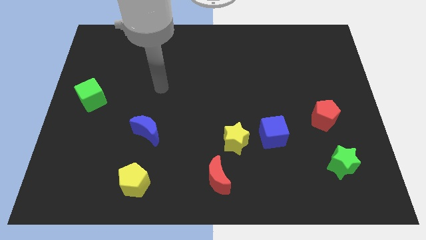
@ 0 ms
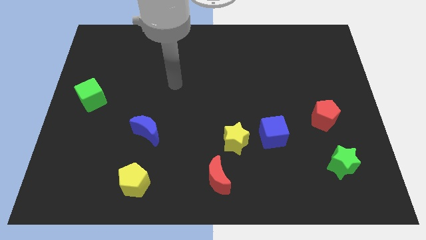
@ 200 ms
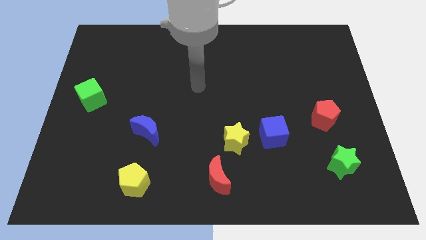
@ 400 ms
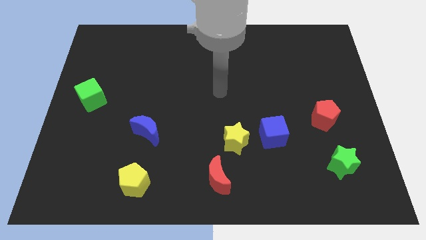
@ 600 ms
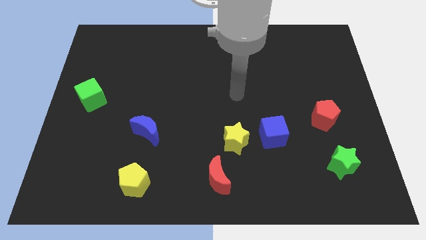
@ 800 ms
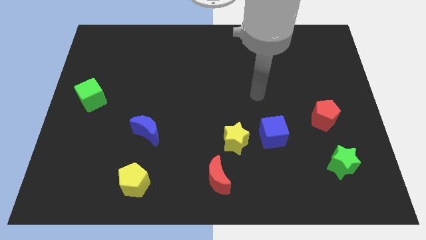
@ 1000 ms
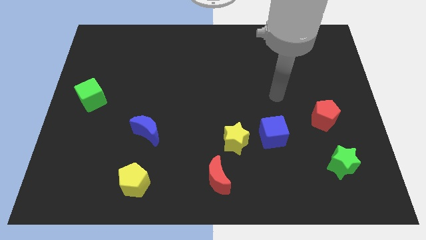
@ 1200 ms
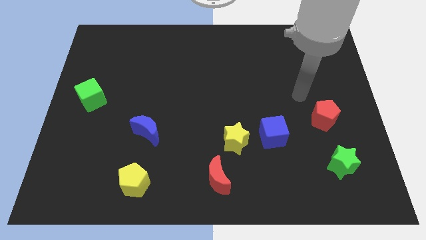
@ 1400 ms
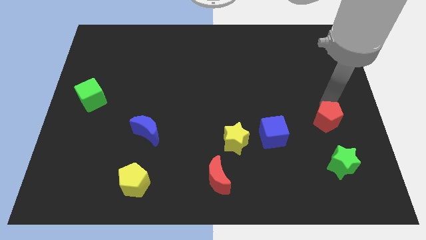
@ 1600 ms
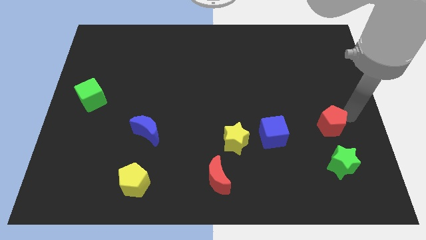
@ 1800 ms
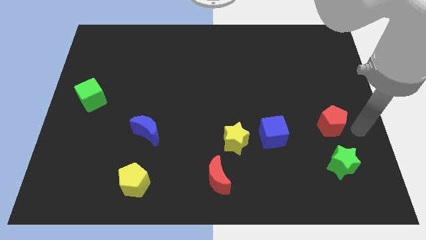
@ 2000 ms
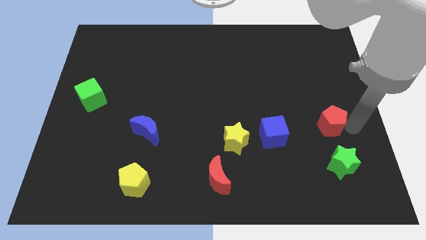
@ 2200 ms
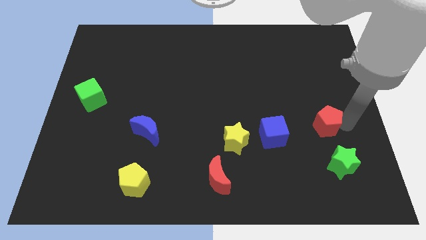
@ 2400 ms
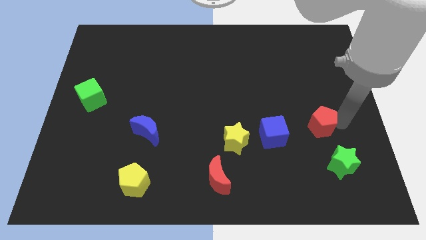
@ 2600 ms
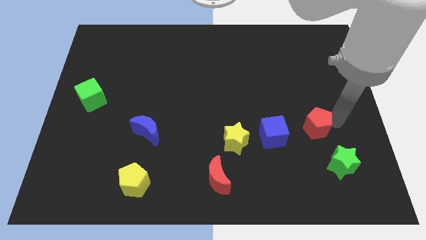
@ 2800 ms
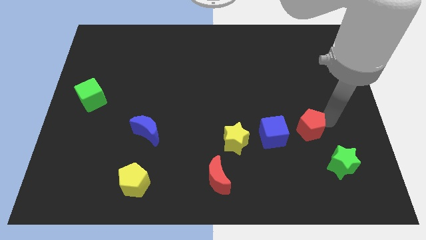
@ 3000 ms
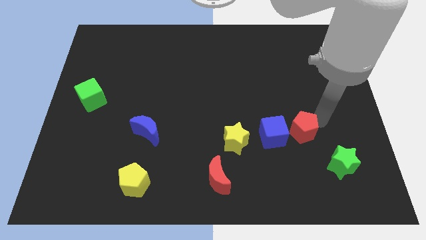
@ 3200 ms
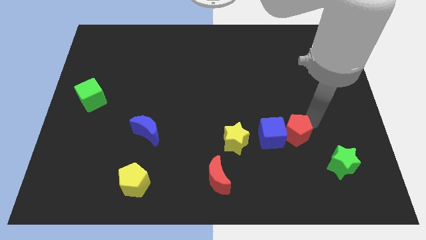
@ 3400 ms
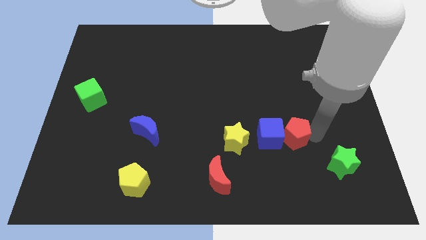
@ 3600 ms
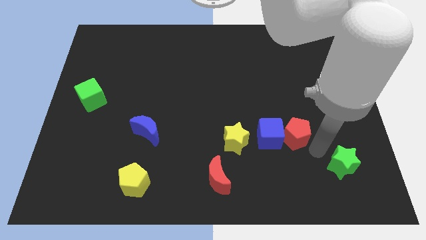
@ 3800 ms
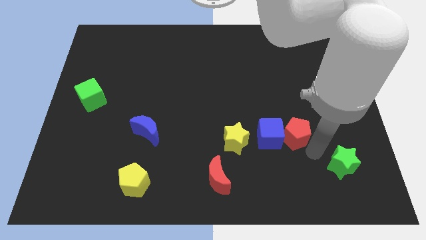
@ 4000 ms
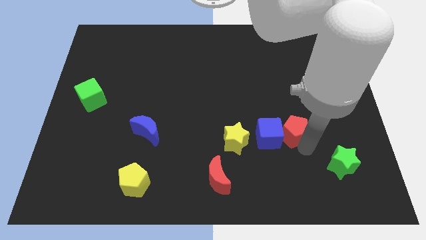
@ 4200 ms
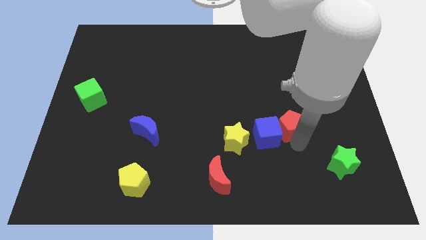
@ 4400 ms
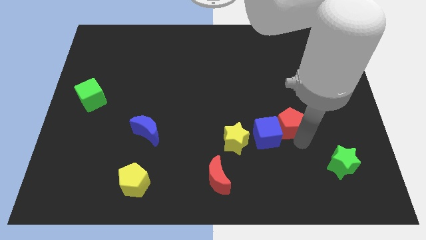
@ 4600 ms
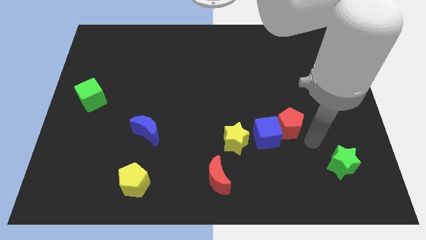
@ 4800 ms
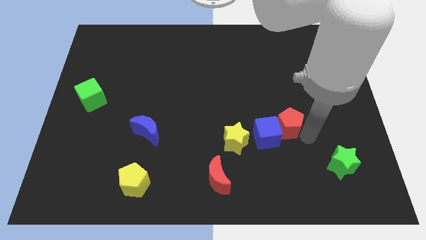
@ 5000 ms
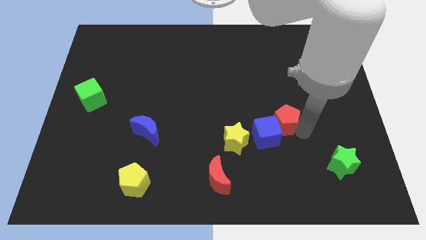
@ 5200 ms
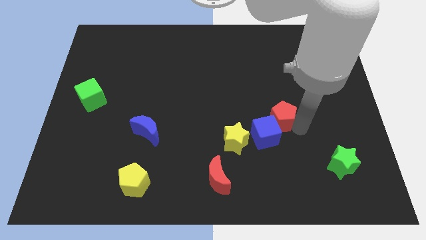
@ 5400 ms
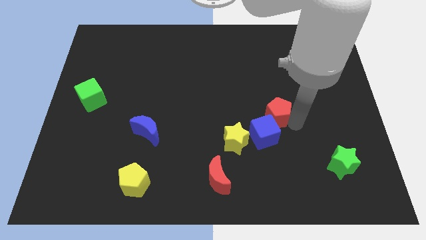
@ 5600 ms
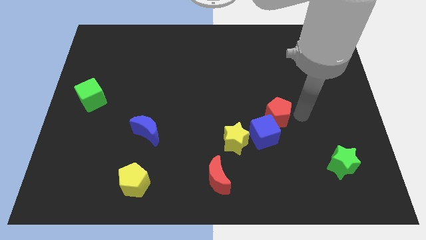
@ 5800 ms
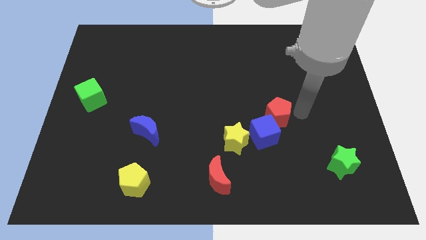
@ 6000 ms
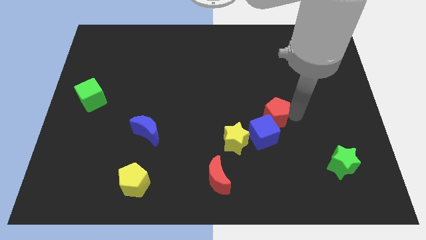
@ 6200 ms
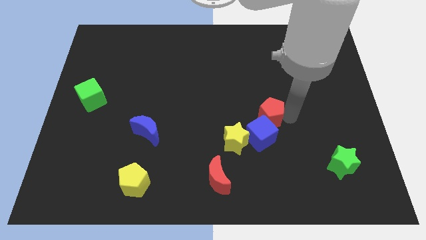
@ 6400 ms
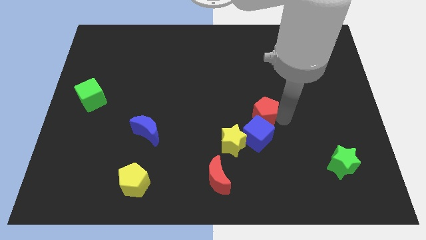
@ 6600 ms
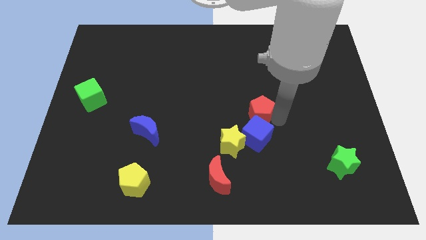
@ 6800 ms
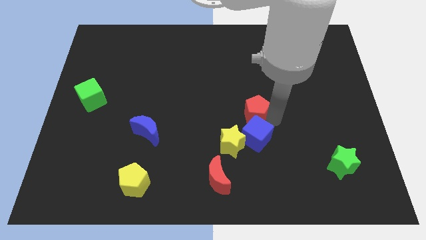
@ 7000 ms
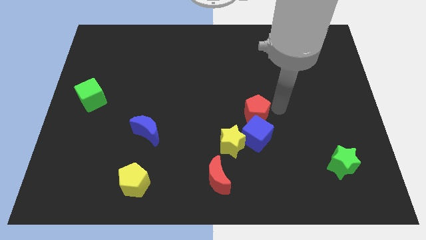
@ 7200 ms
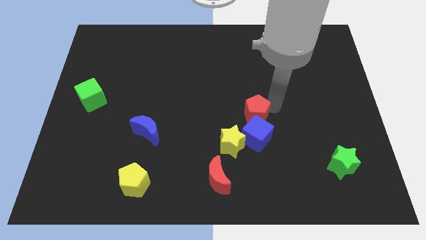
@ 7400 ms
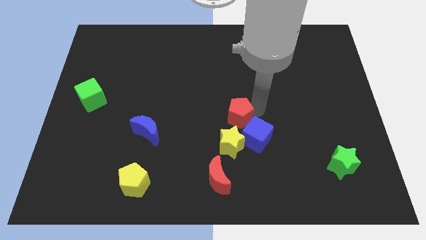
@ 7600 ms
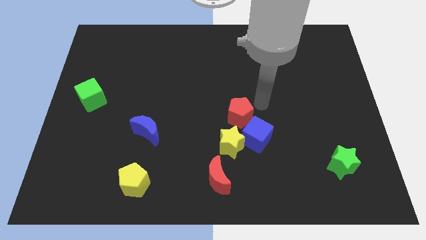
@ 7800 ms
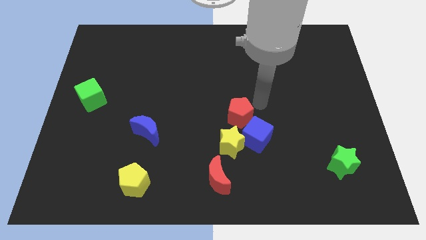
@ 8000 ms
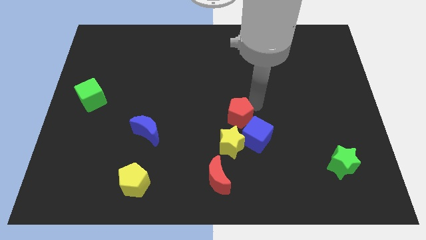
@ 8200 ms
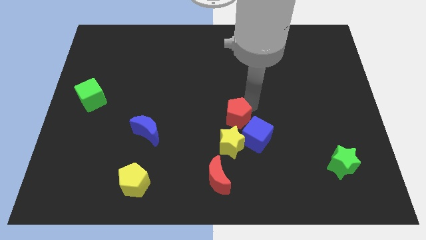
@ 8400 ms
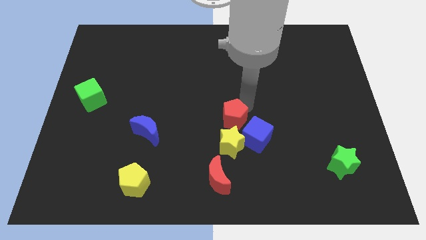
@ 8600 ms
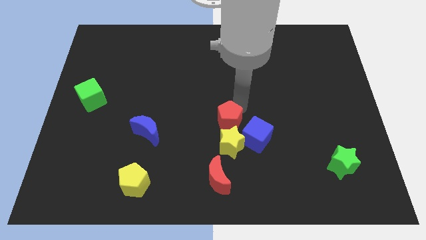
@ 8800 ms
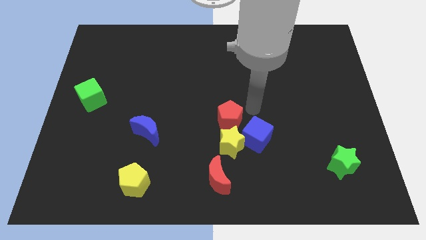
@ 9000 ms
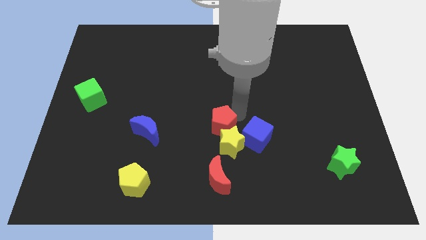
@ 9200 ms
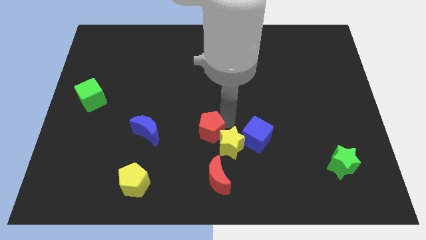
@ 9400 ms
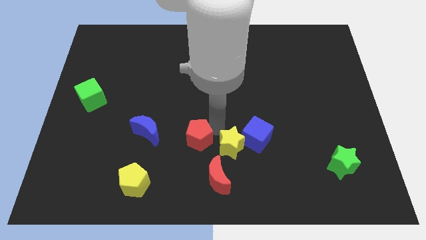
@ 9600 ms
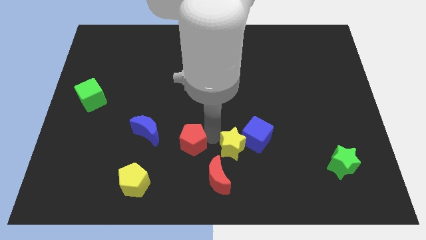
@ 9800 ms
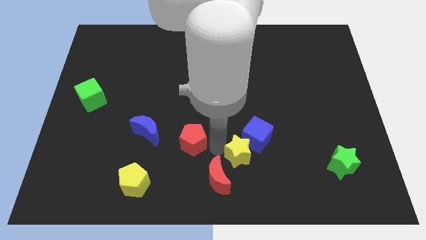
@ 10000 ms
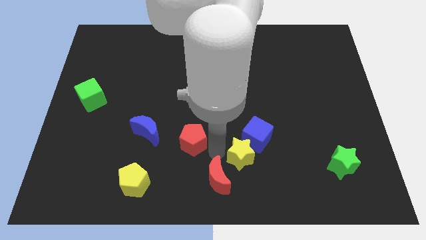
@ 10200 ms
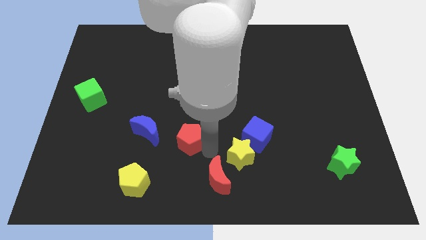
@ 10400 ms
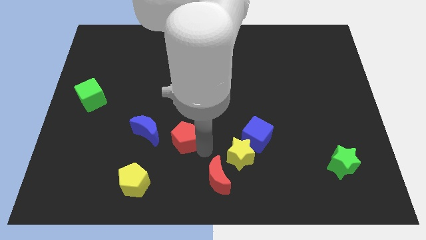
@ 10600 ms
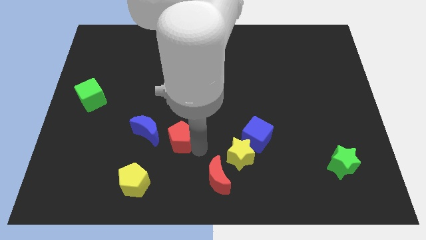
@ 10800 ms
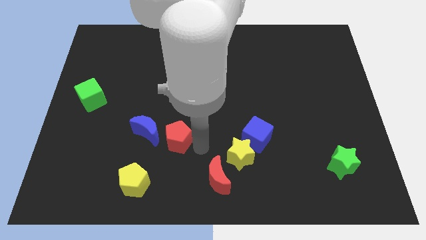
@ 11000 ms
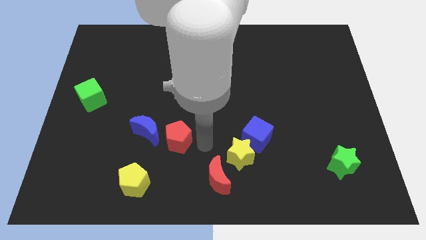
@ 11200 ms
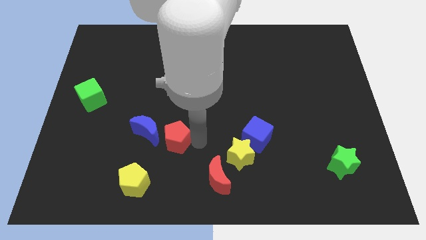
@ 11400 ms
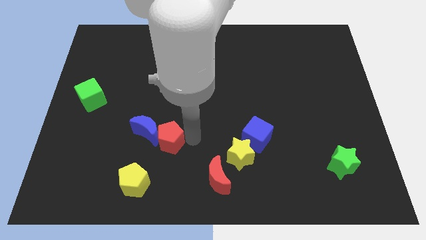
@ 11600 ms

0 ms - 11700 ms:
put the red pentagon to the blue moon

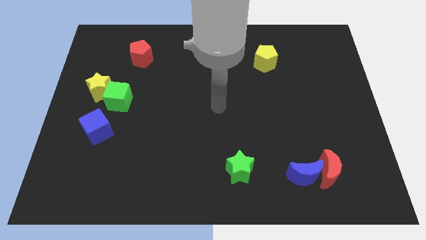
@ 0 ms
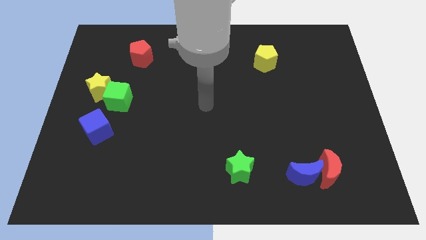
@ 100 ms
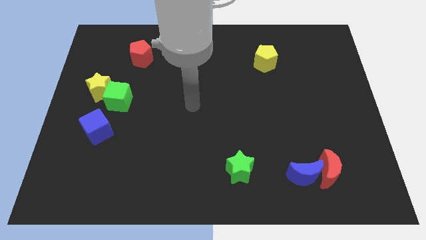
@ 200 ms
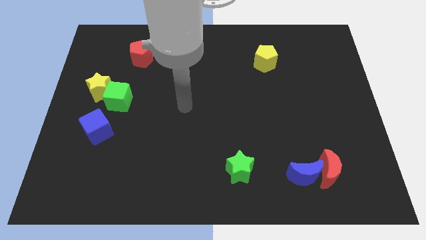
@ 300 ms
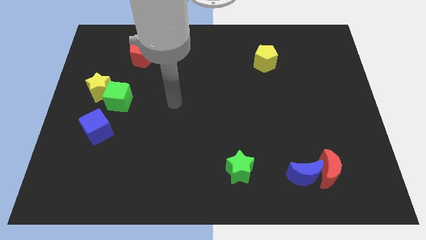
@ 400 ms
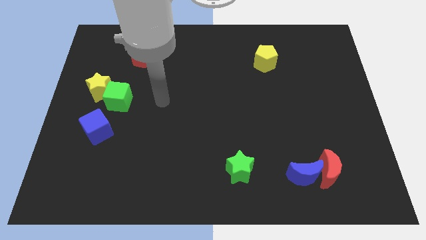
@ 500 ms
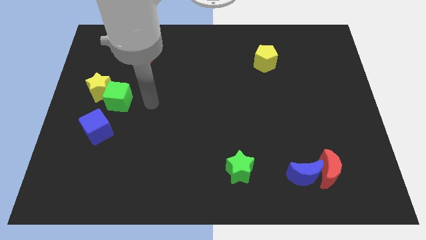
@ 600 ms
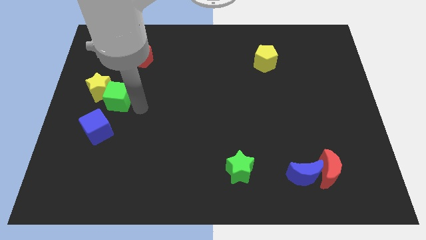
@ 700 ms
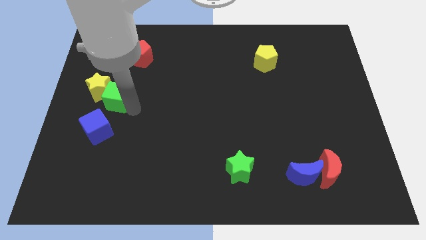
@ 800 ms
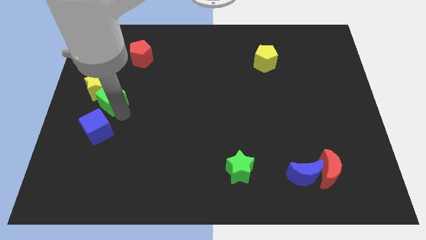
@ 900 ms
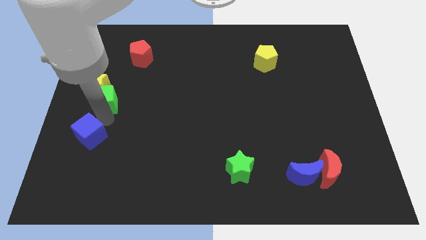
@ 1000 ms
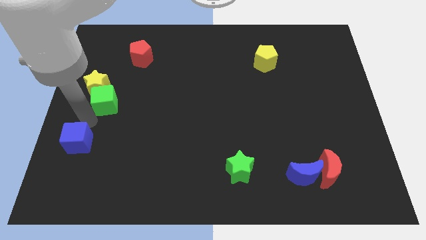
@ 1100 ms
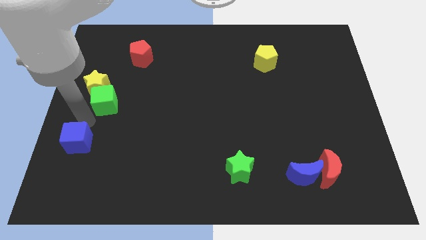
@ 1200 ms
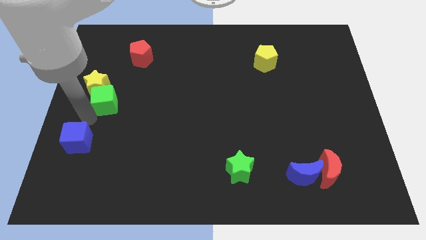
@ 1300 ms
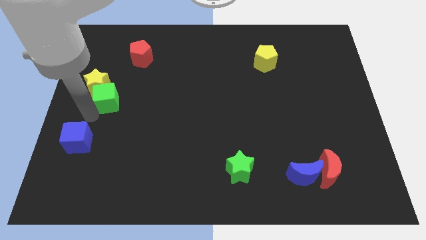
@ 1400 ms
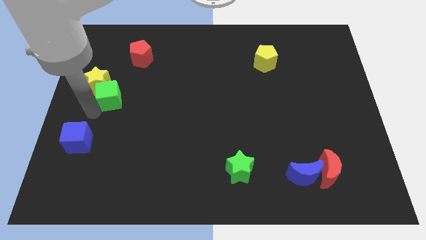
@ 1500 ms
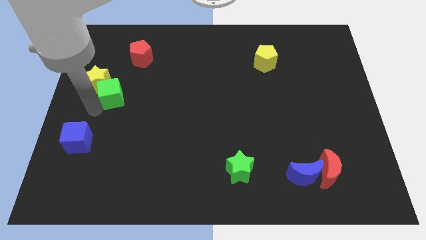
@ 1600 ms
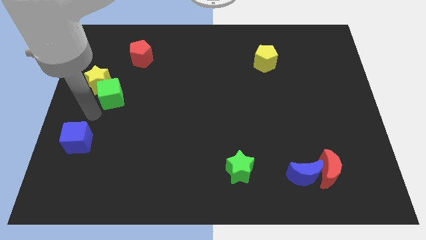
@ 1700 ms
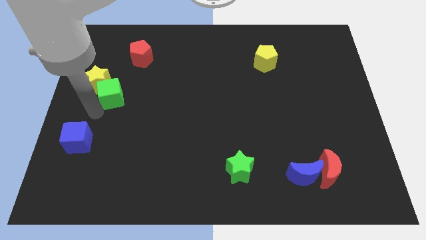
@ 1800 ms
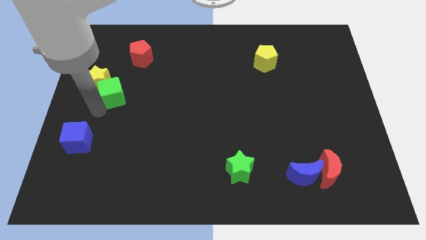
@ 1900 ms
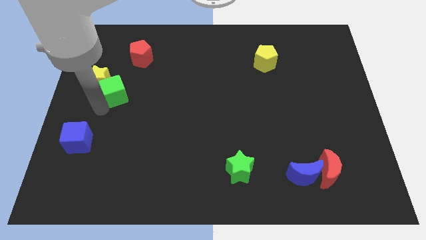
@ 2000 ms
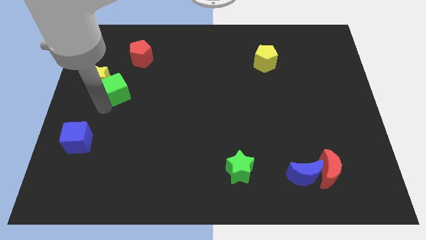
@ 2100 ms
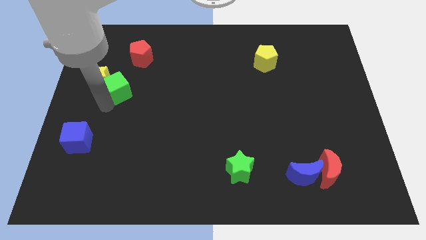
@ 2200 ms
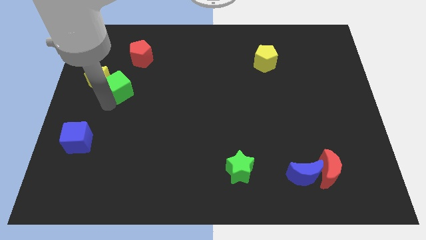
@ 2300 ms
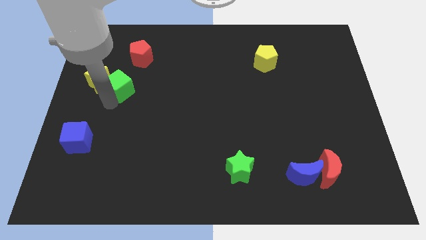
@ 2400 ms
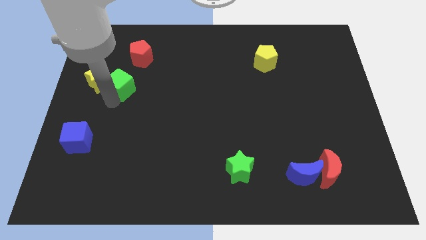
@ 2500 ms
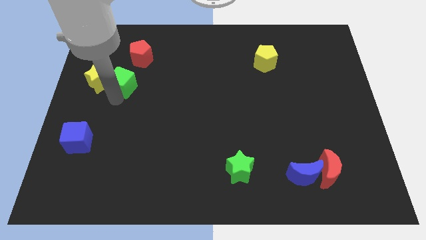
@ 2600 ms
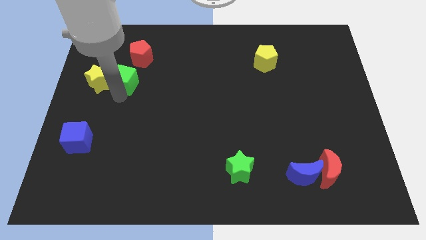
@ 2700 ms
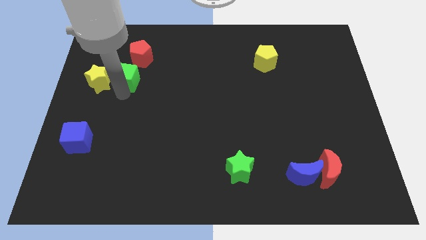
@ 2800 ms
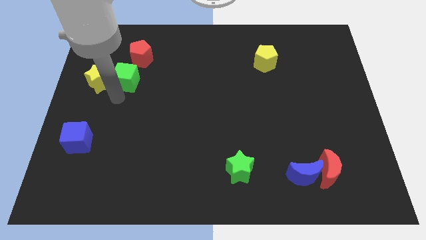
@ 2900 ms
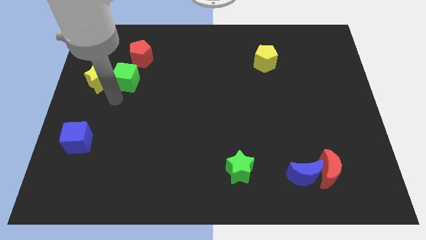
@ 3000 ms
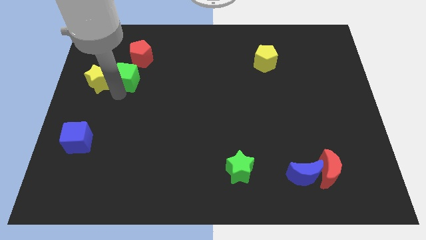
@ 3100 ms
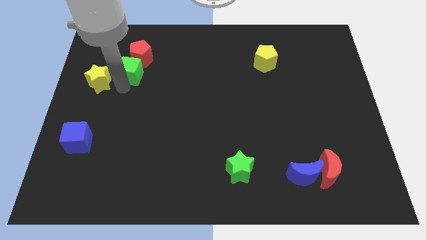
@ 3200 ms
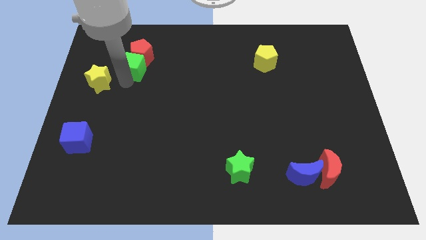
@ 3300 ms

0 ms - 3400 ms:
put the green cube to the red pentagon
